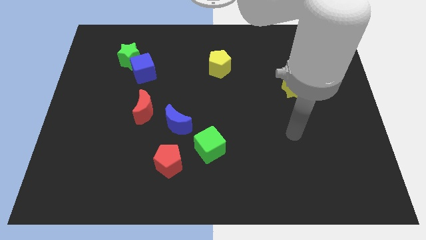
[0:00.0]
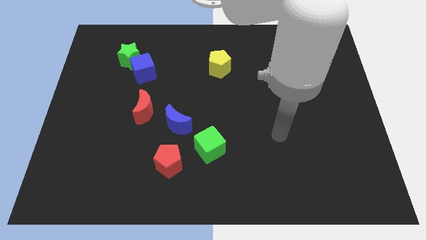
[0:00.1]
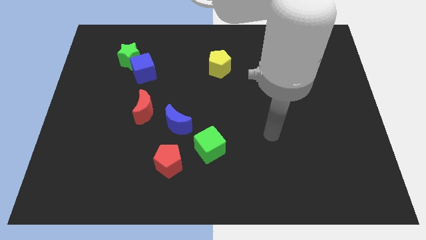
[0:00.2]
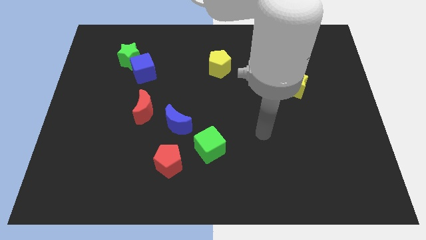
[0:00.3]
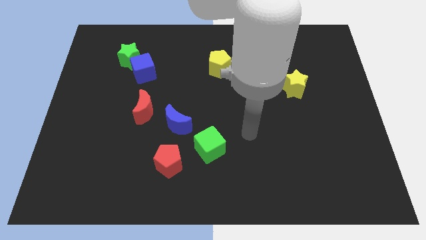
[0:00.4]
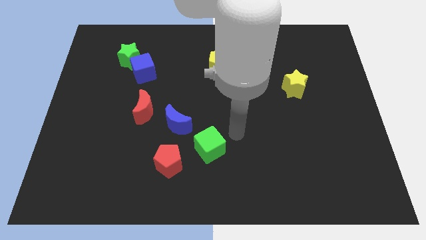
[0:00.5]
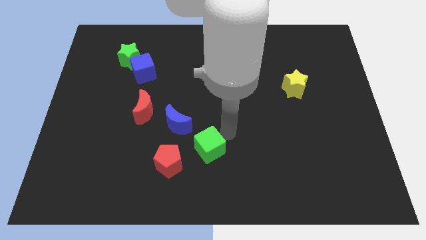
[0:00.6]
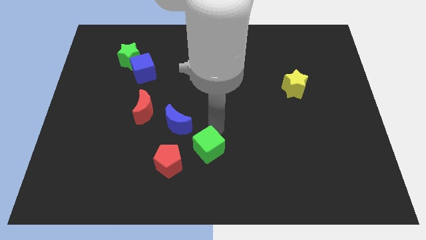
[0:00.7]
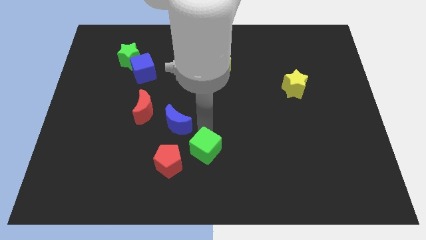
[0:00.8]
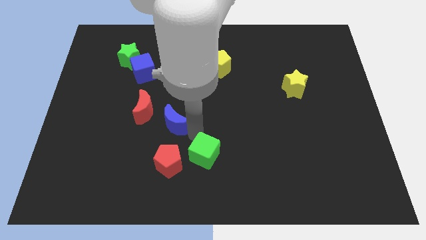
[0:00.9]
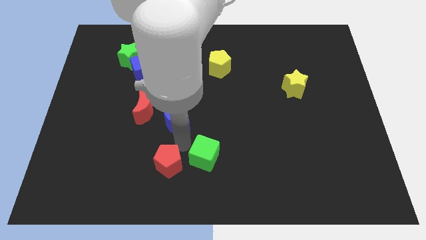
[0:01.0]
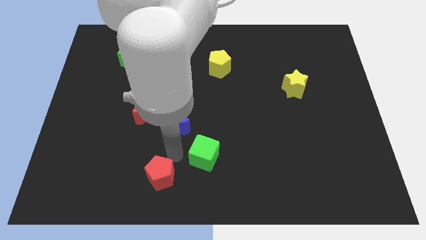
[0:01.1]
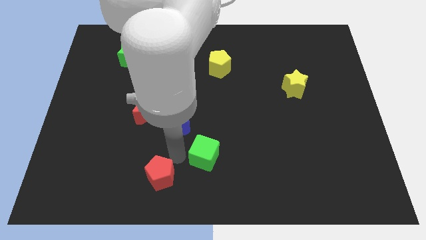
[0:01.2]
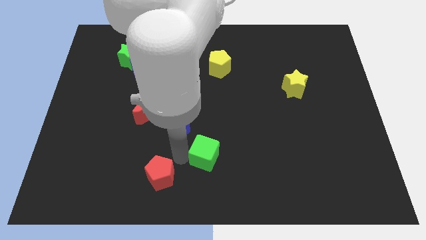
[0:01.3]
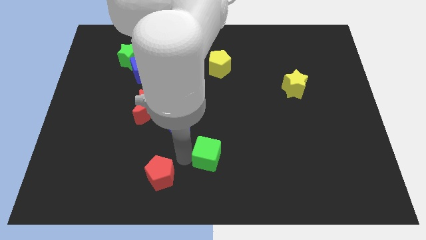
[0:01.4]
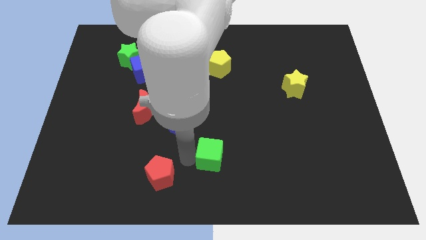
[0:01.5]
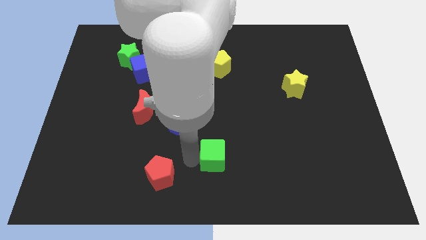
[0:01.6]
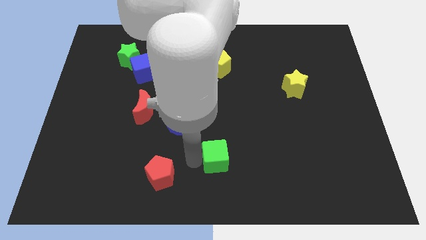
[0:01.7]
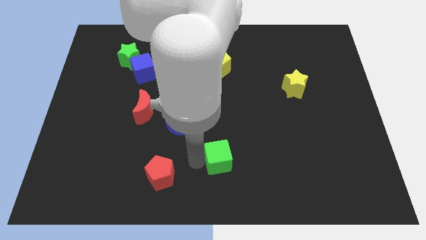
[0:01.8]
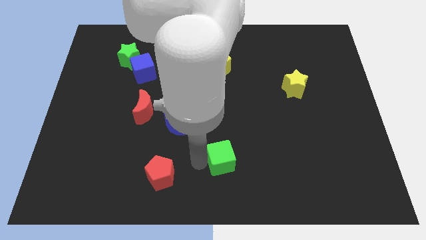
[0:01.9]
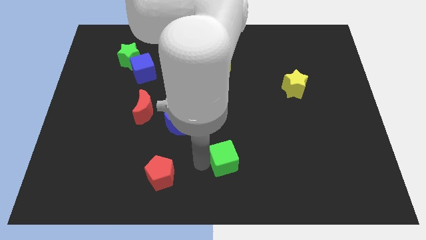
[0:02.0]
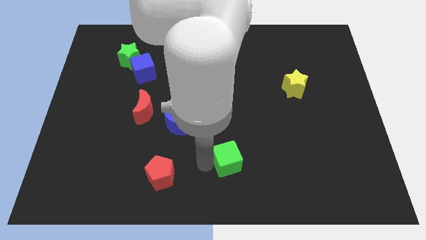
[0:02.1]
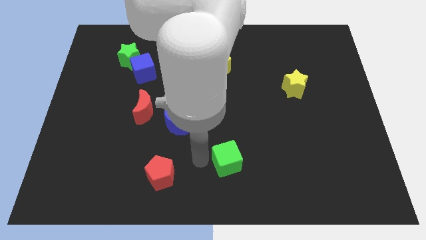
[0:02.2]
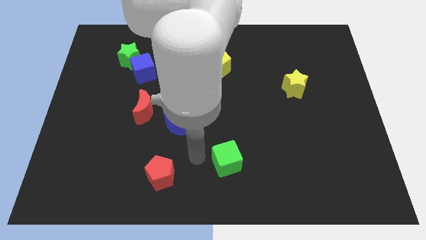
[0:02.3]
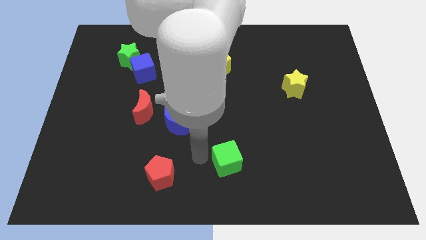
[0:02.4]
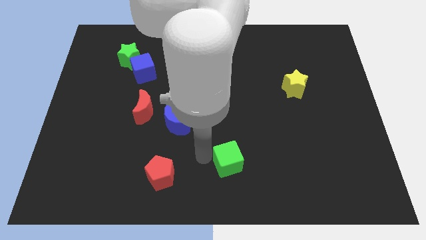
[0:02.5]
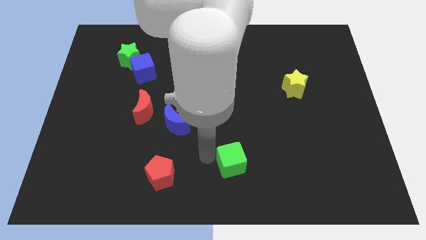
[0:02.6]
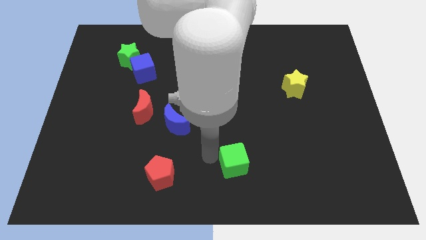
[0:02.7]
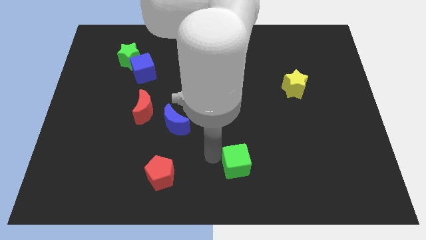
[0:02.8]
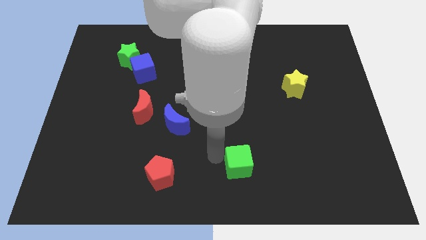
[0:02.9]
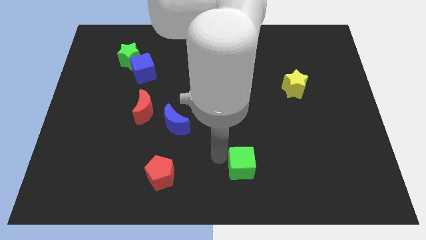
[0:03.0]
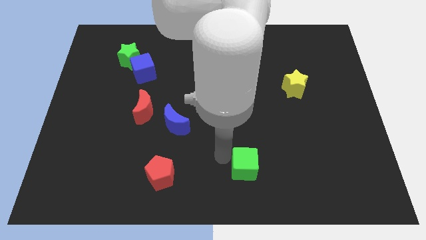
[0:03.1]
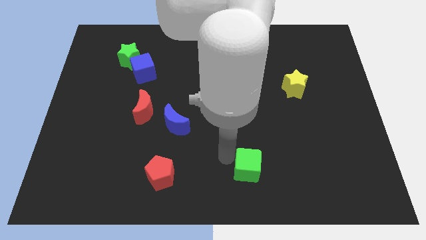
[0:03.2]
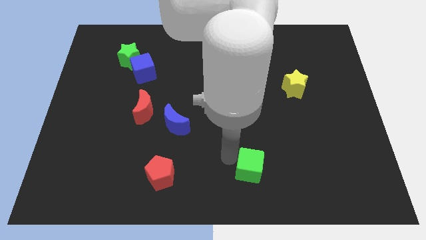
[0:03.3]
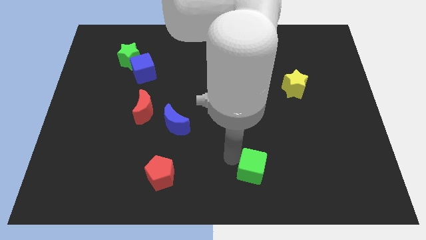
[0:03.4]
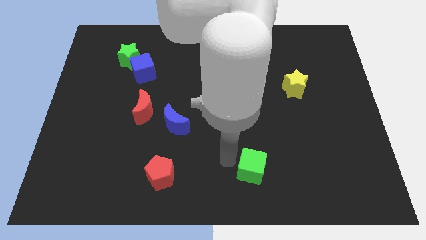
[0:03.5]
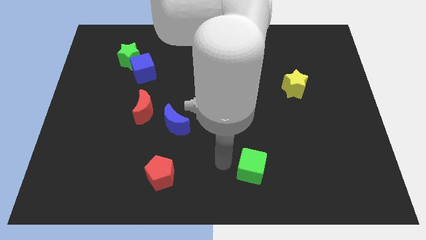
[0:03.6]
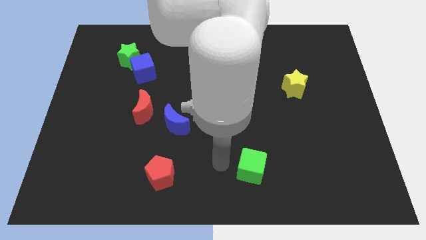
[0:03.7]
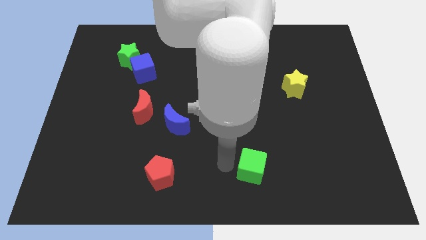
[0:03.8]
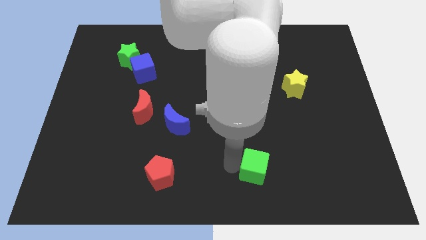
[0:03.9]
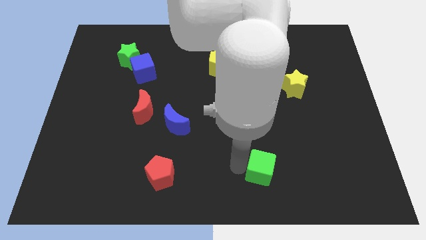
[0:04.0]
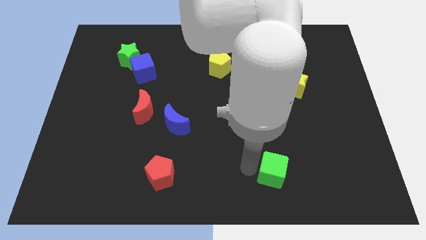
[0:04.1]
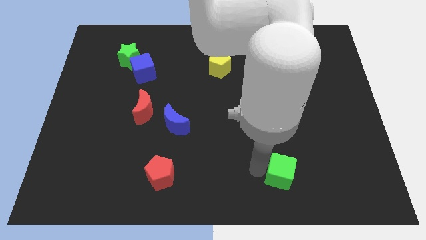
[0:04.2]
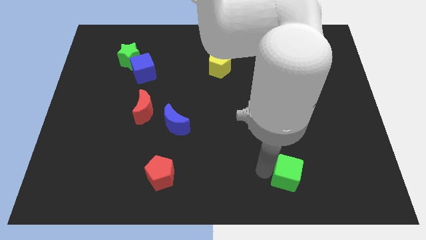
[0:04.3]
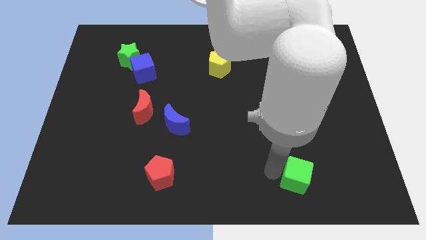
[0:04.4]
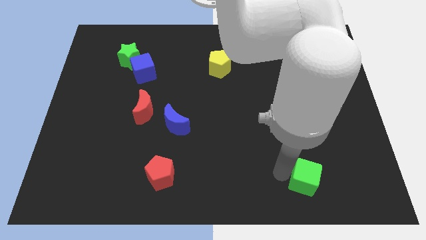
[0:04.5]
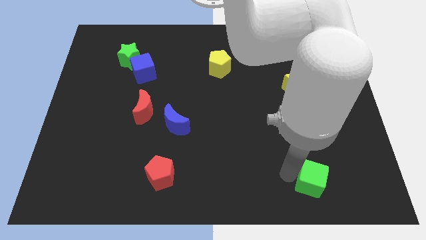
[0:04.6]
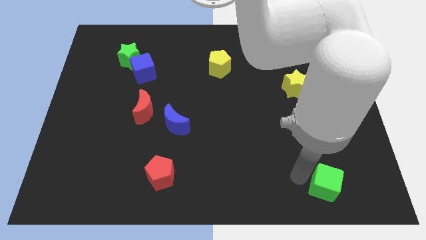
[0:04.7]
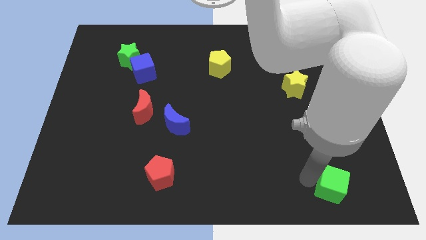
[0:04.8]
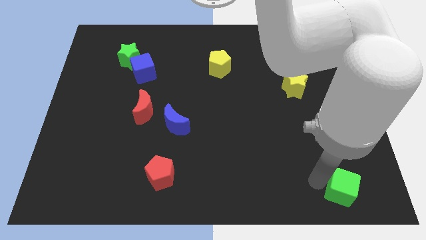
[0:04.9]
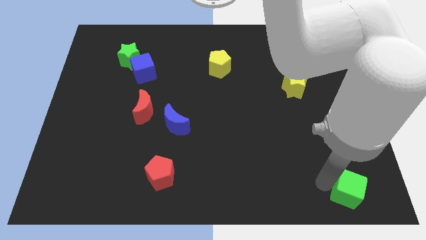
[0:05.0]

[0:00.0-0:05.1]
slide the green cube to the bottom right corner

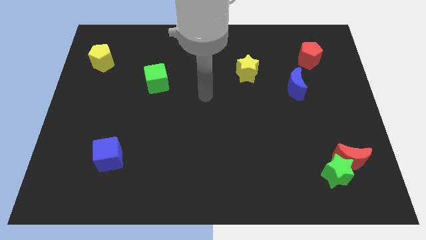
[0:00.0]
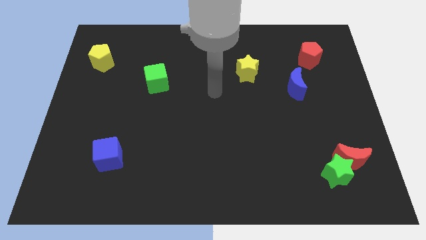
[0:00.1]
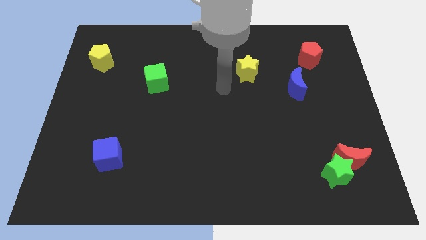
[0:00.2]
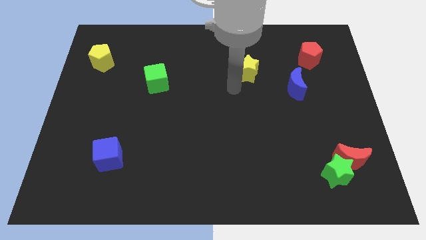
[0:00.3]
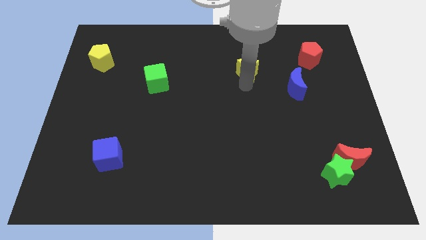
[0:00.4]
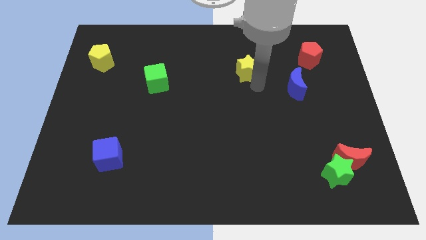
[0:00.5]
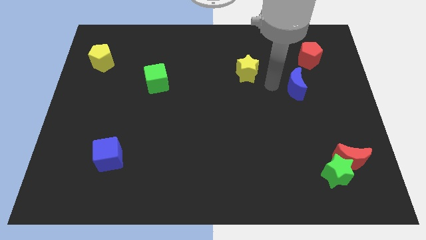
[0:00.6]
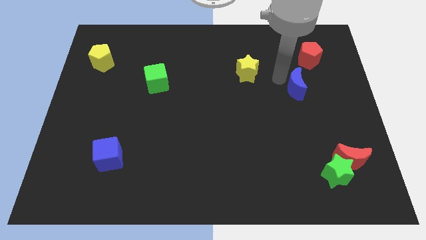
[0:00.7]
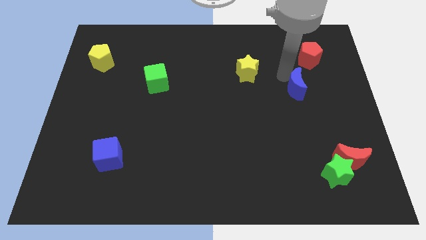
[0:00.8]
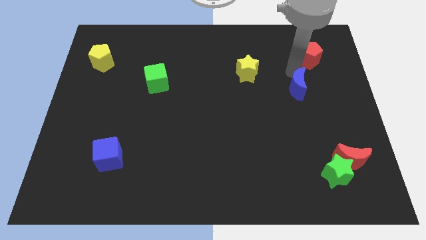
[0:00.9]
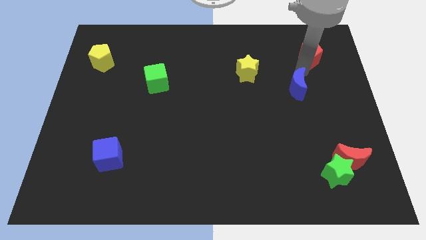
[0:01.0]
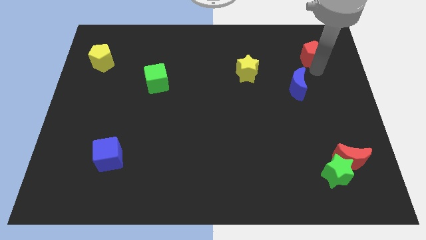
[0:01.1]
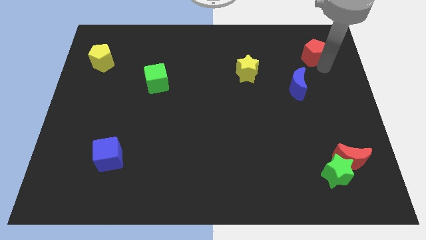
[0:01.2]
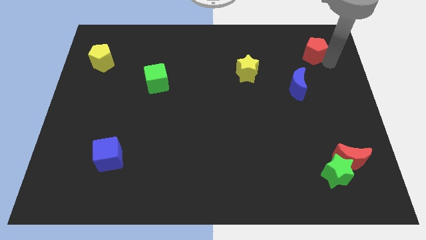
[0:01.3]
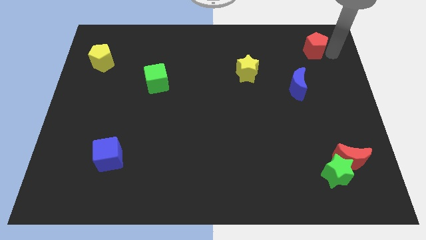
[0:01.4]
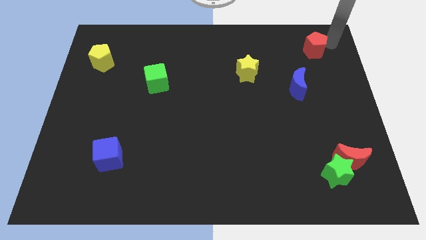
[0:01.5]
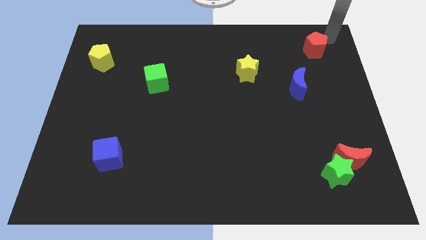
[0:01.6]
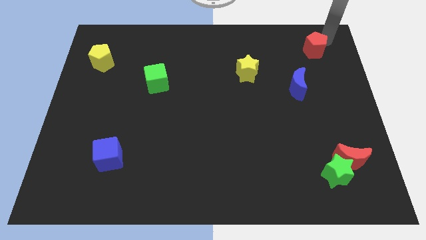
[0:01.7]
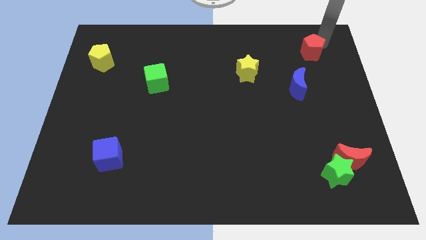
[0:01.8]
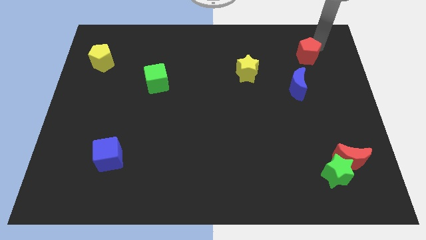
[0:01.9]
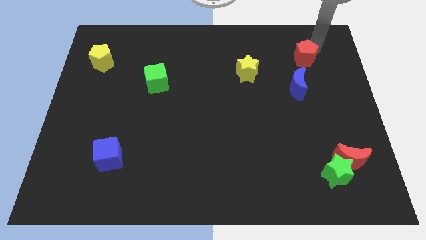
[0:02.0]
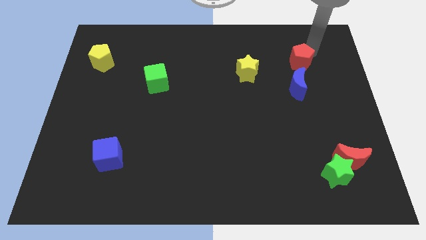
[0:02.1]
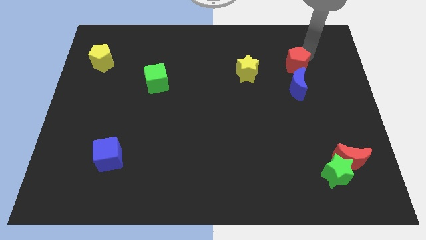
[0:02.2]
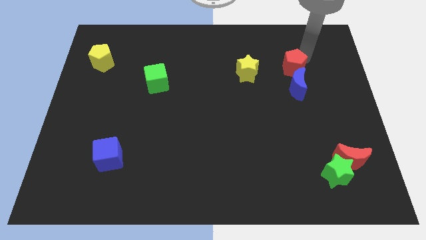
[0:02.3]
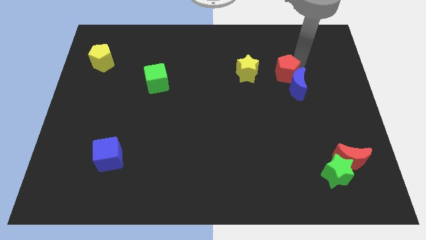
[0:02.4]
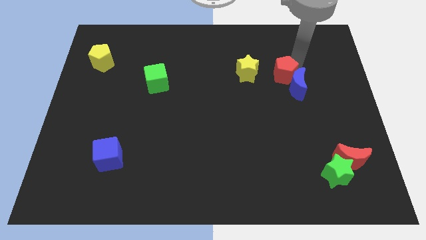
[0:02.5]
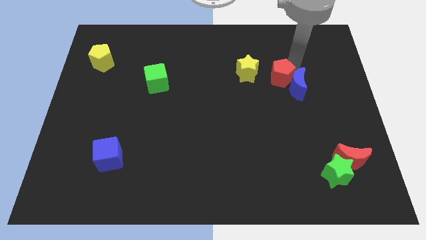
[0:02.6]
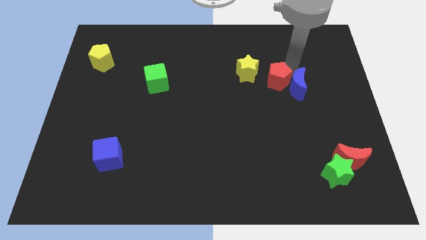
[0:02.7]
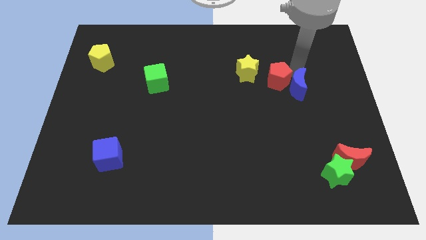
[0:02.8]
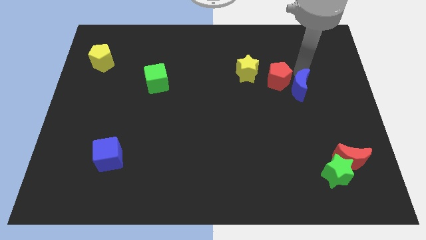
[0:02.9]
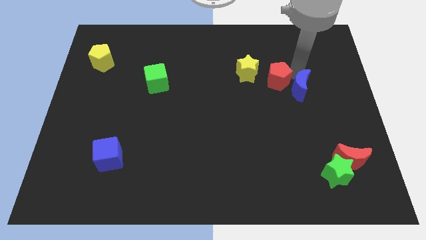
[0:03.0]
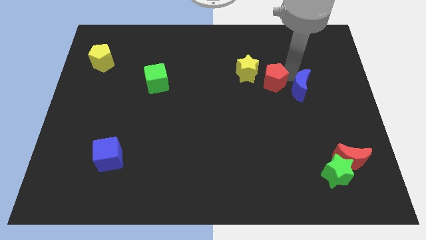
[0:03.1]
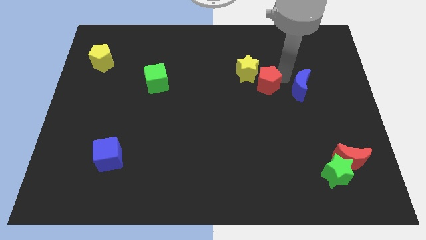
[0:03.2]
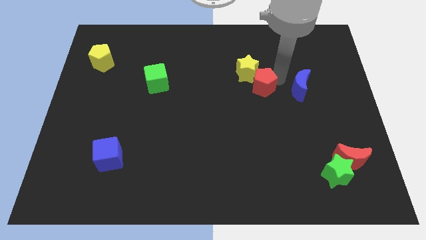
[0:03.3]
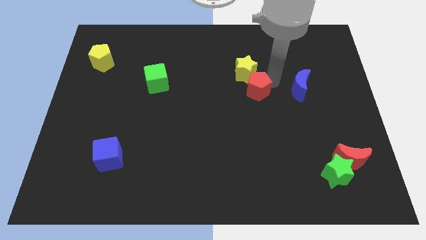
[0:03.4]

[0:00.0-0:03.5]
push the red pentagon to the center
